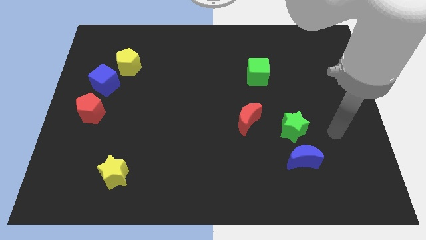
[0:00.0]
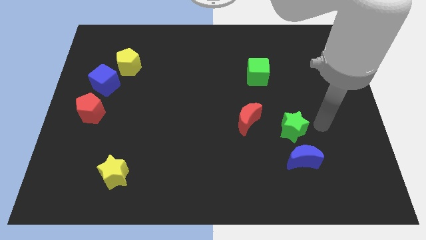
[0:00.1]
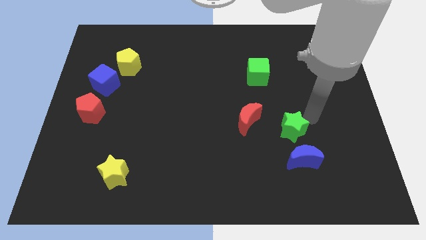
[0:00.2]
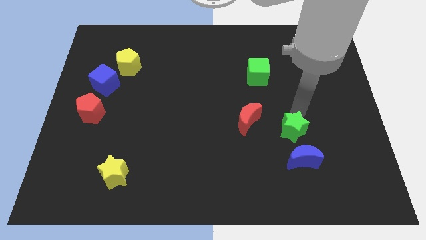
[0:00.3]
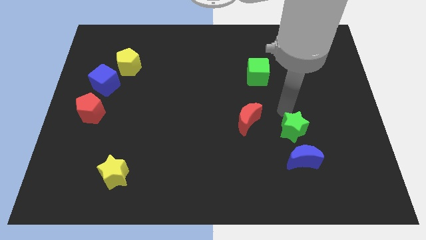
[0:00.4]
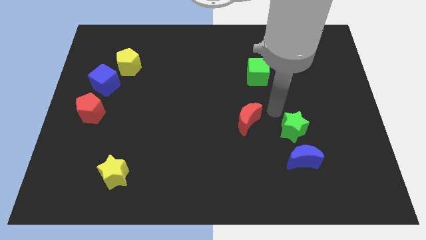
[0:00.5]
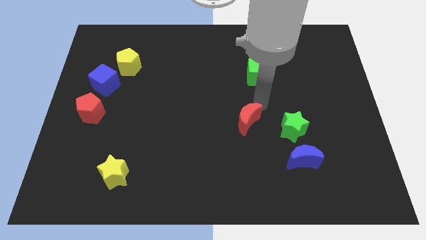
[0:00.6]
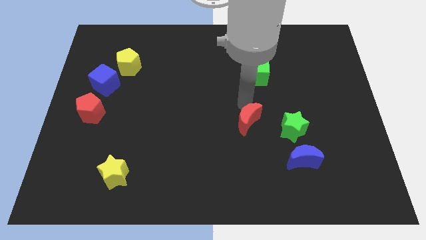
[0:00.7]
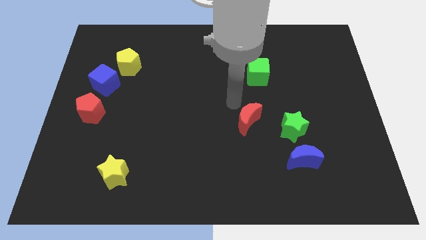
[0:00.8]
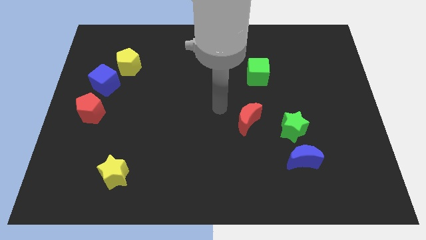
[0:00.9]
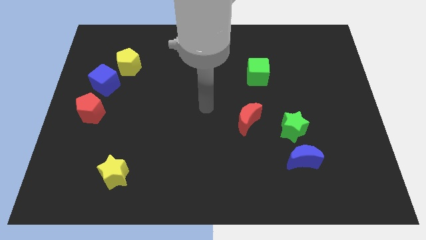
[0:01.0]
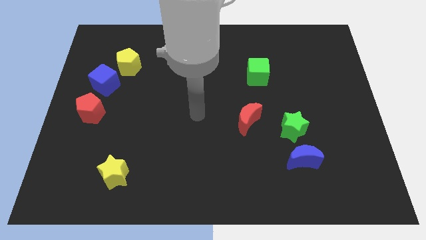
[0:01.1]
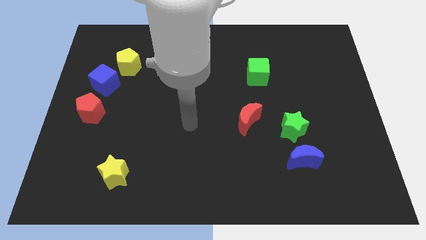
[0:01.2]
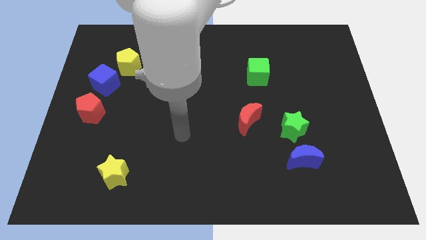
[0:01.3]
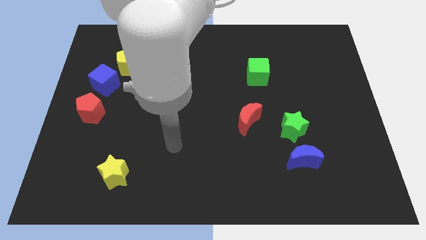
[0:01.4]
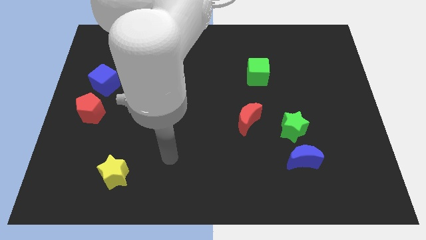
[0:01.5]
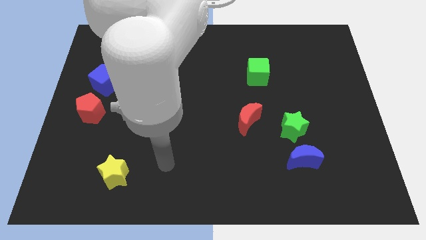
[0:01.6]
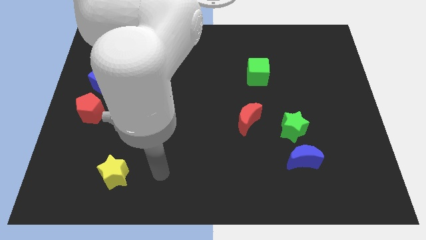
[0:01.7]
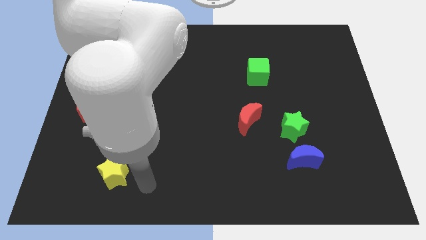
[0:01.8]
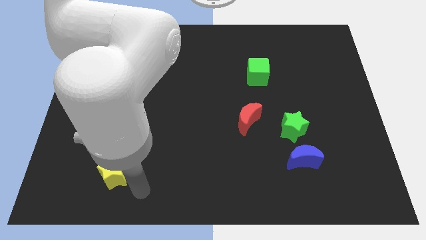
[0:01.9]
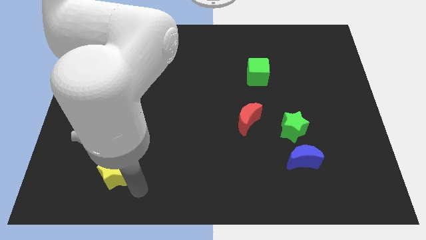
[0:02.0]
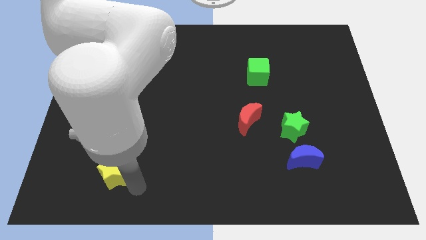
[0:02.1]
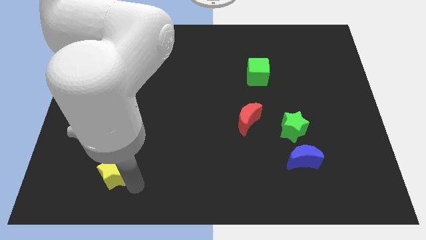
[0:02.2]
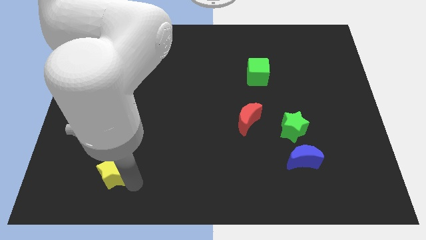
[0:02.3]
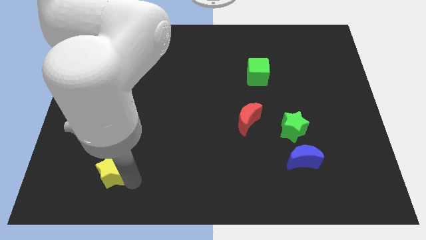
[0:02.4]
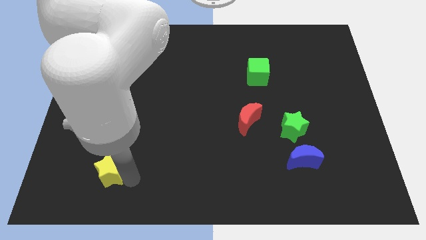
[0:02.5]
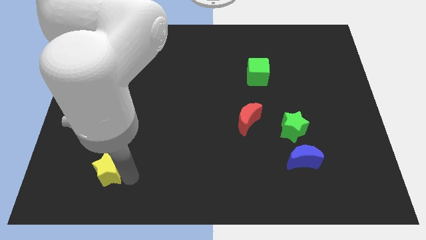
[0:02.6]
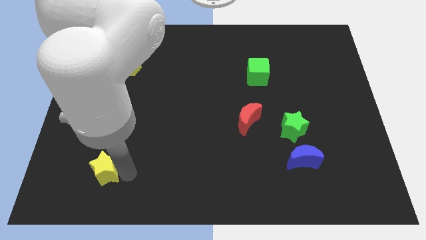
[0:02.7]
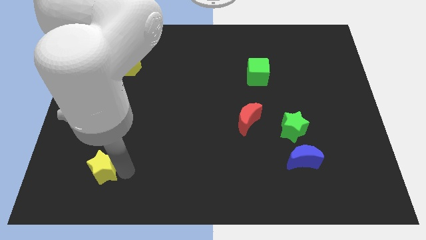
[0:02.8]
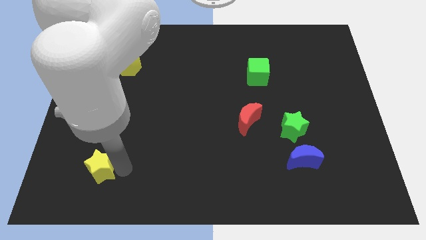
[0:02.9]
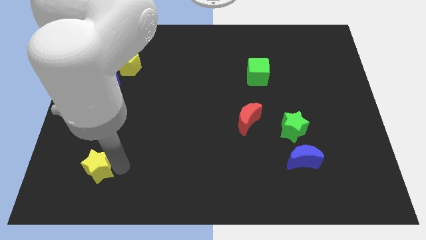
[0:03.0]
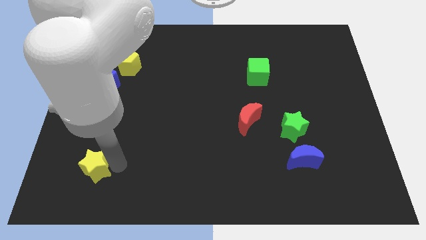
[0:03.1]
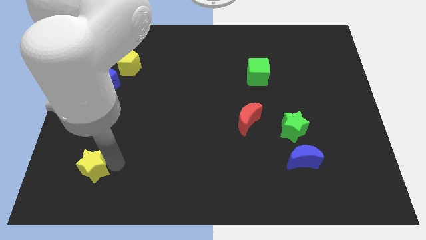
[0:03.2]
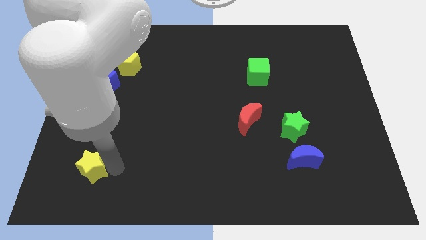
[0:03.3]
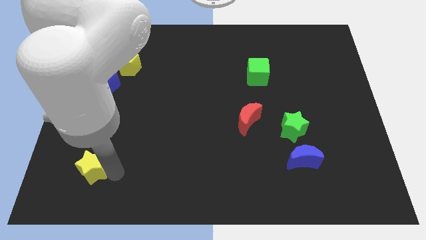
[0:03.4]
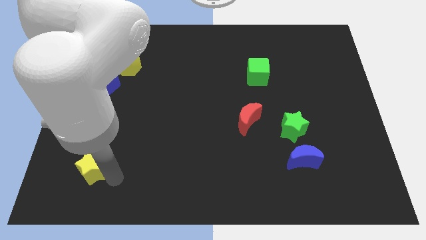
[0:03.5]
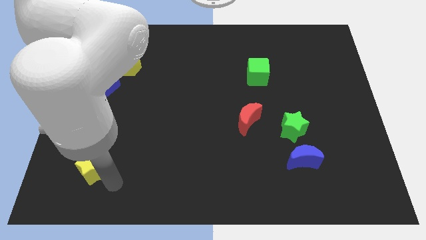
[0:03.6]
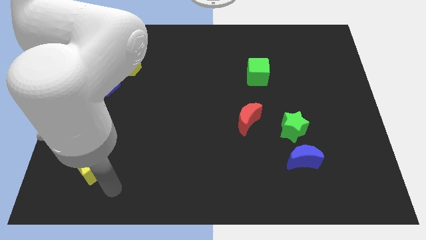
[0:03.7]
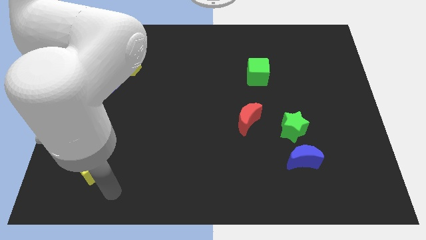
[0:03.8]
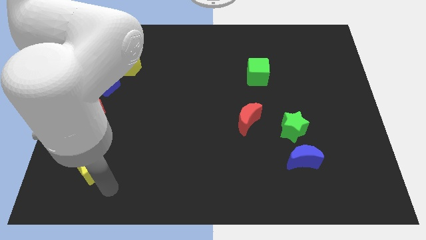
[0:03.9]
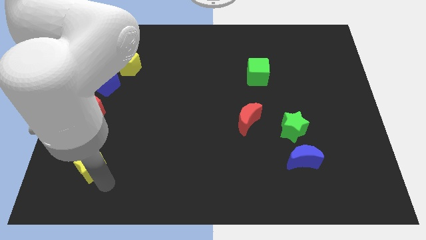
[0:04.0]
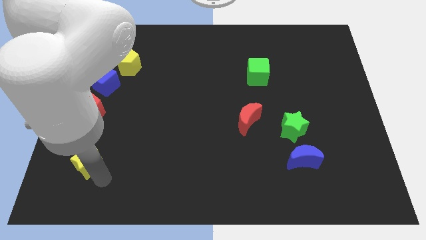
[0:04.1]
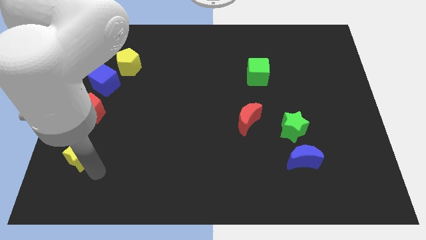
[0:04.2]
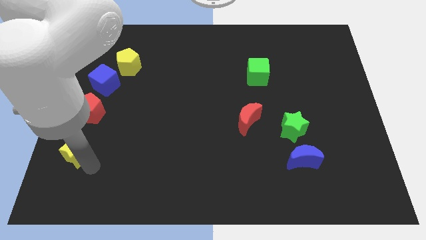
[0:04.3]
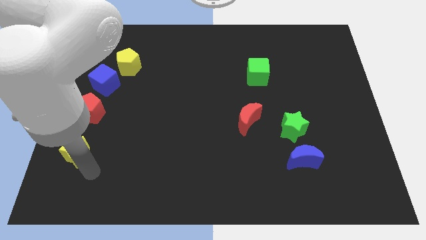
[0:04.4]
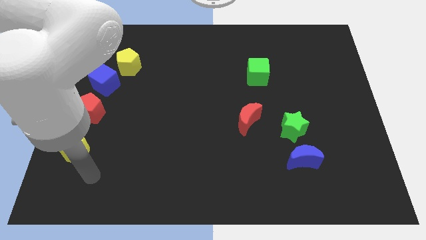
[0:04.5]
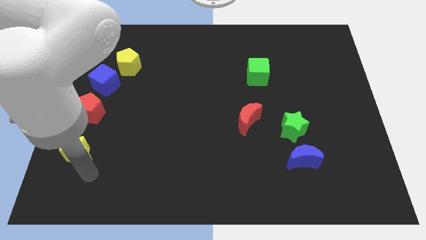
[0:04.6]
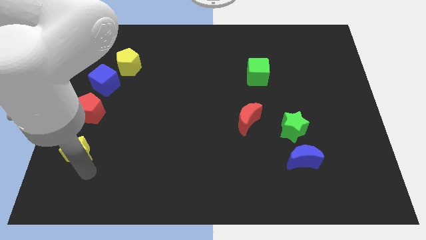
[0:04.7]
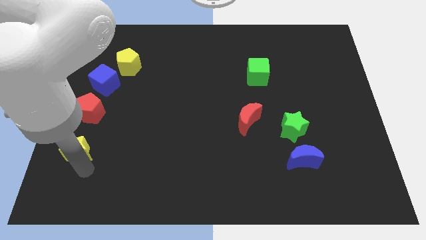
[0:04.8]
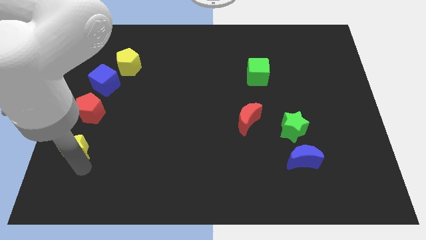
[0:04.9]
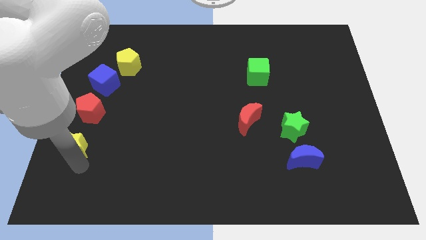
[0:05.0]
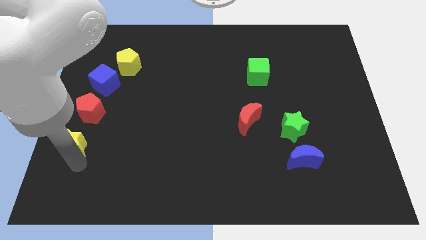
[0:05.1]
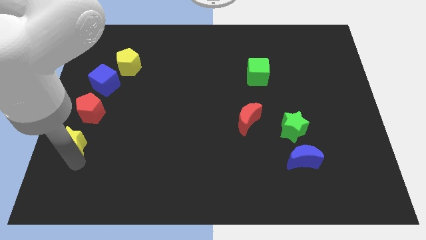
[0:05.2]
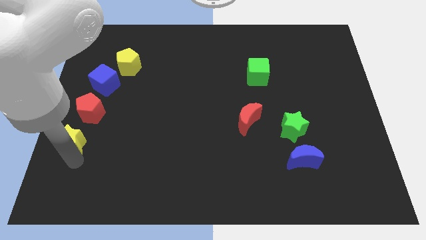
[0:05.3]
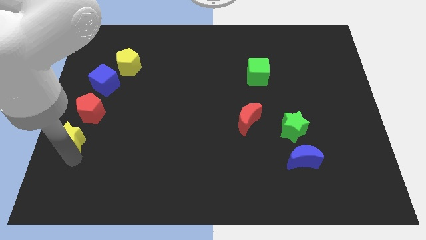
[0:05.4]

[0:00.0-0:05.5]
push the yellow star to the left side

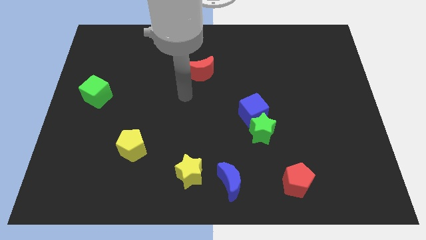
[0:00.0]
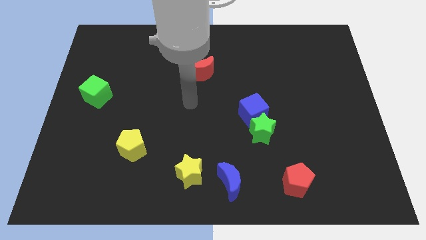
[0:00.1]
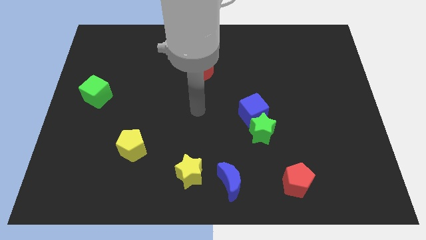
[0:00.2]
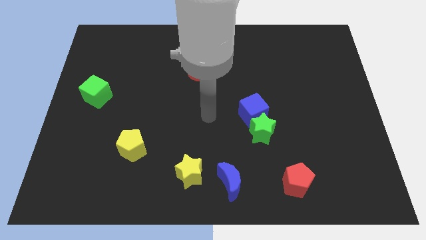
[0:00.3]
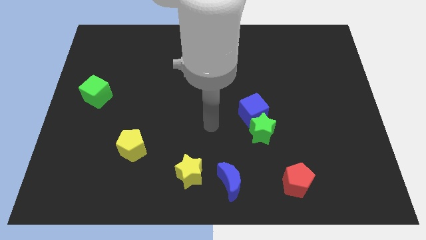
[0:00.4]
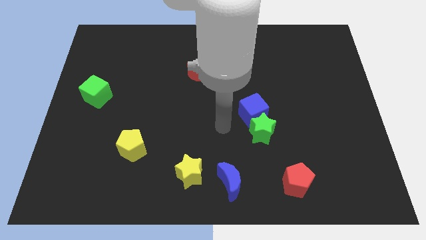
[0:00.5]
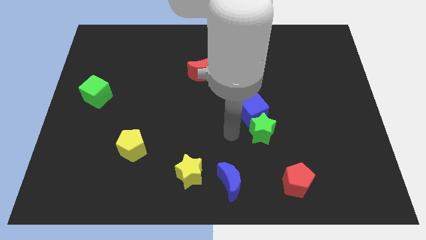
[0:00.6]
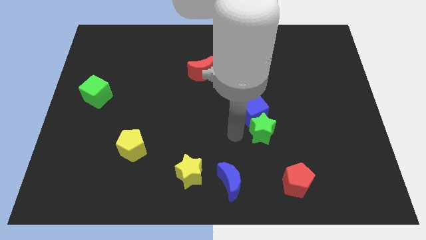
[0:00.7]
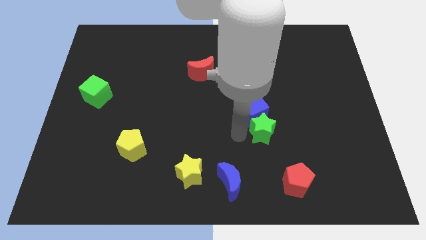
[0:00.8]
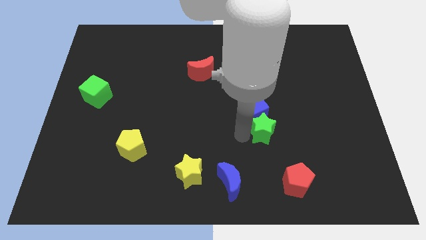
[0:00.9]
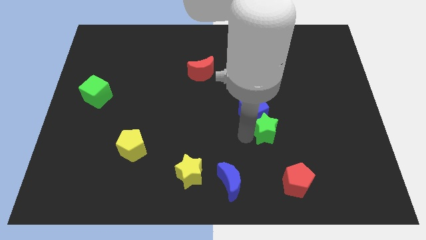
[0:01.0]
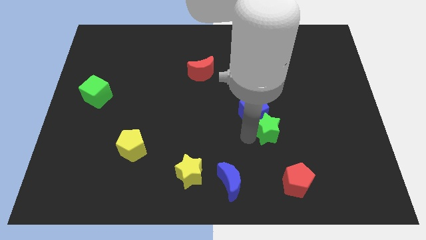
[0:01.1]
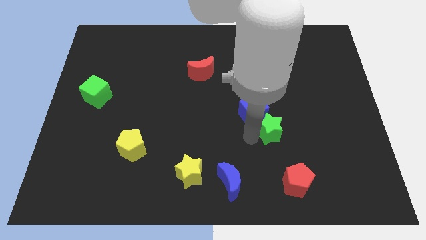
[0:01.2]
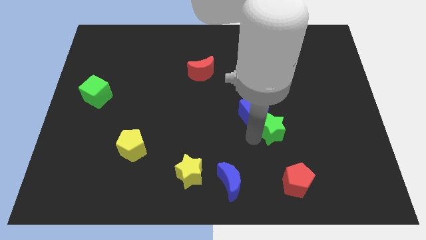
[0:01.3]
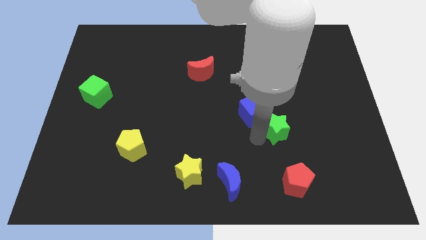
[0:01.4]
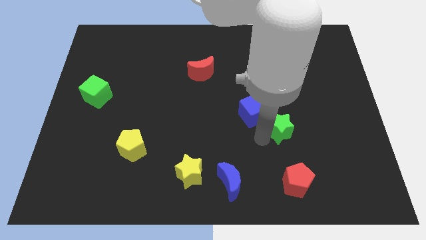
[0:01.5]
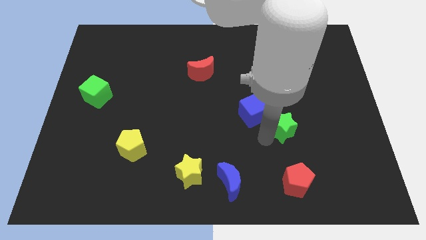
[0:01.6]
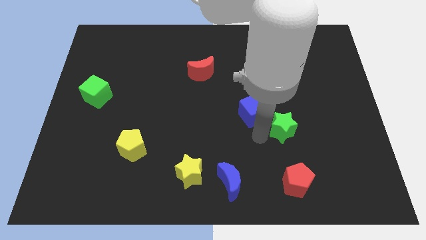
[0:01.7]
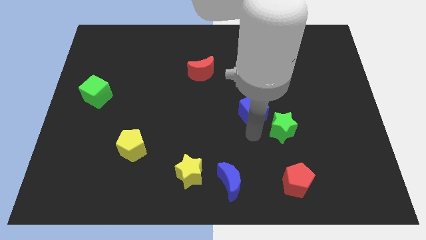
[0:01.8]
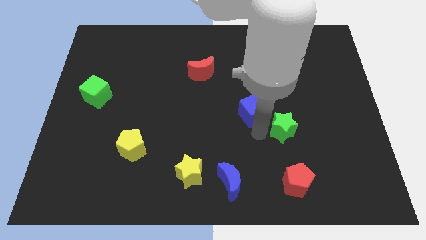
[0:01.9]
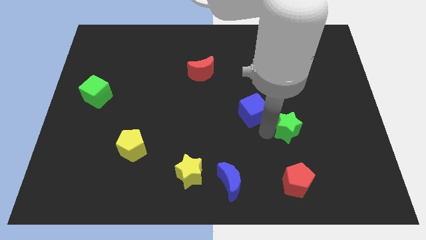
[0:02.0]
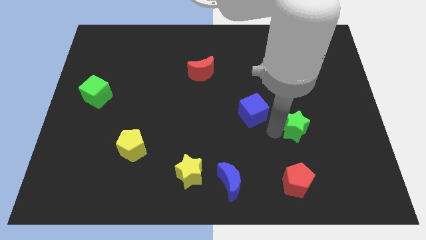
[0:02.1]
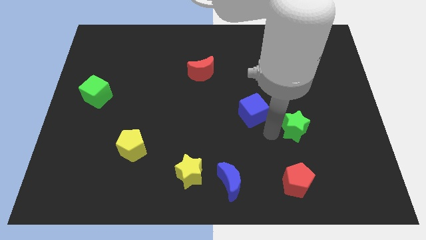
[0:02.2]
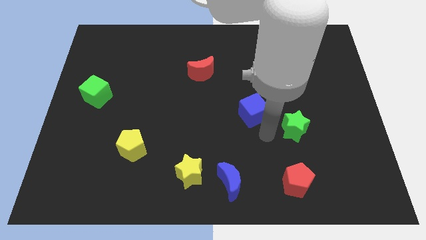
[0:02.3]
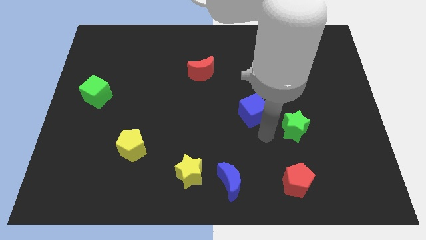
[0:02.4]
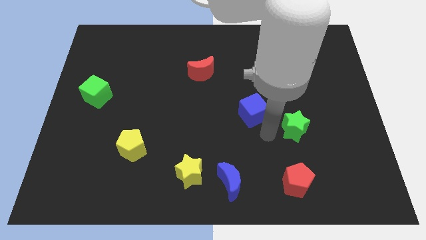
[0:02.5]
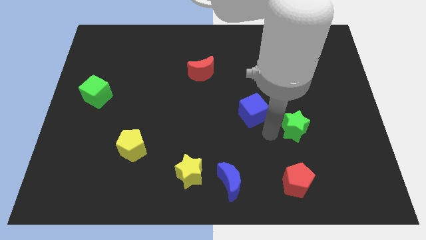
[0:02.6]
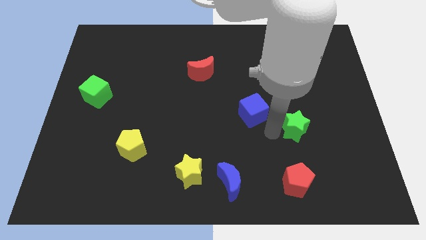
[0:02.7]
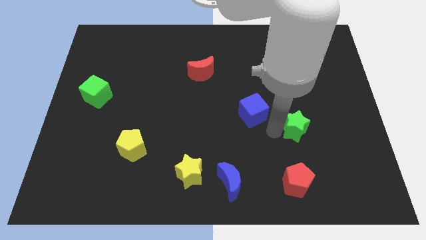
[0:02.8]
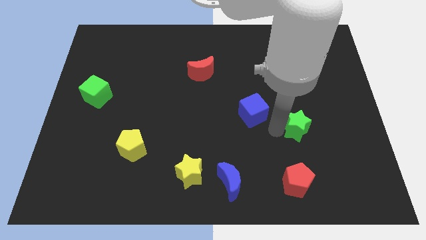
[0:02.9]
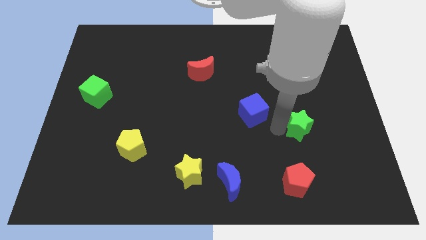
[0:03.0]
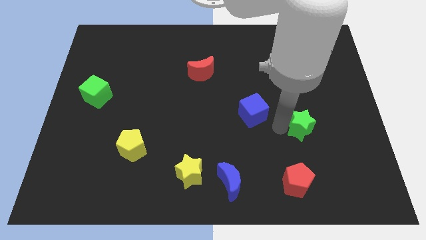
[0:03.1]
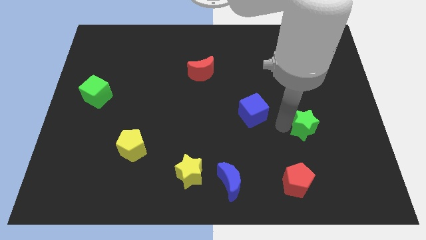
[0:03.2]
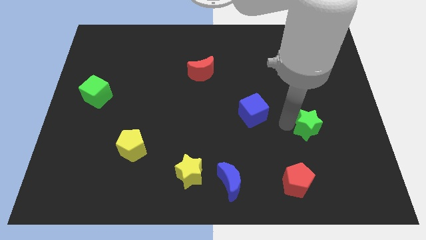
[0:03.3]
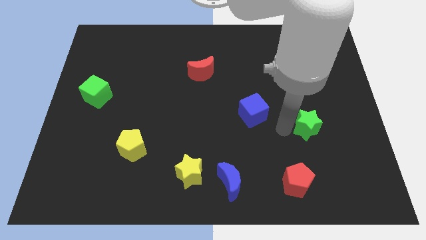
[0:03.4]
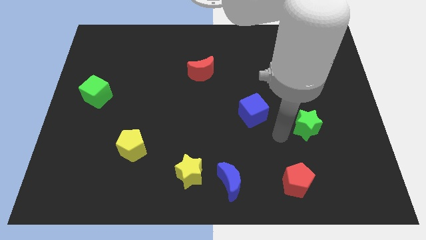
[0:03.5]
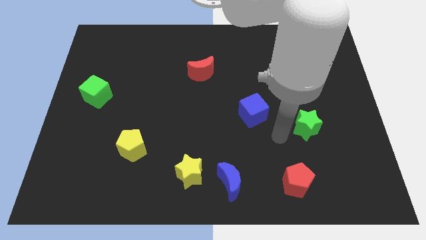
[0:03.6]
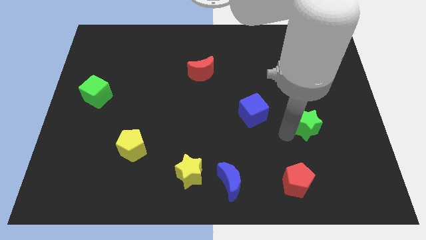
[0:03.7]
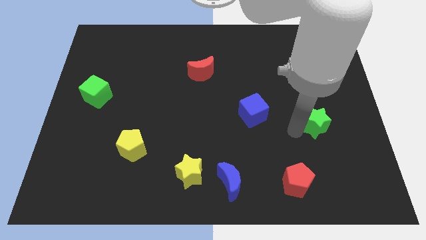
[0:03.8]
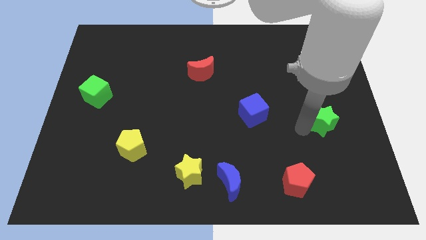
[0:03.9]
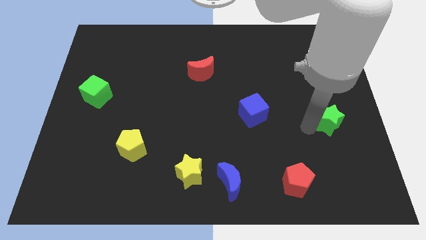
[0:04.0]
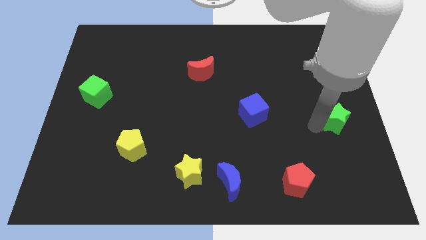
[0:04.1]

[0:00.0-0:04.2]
move the green star to the right side of the board
